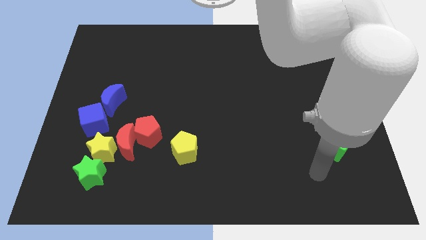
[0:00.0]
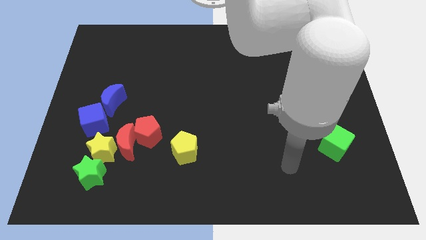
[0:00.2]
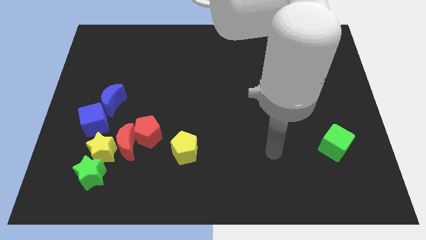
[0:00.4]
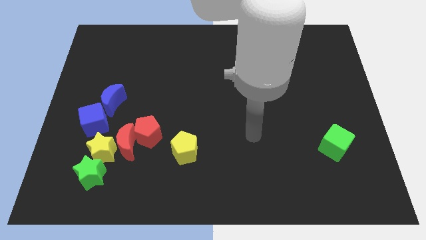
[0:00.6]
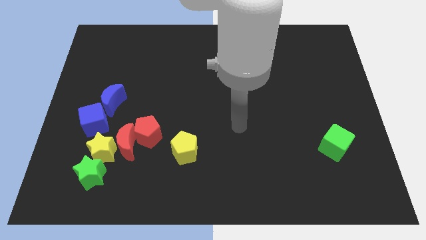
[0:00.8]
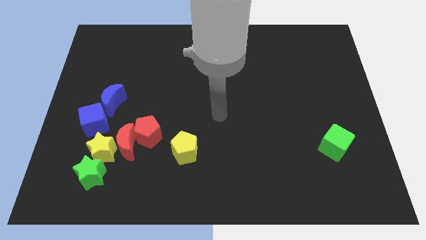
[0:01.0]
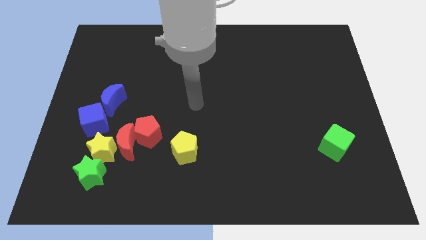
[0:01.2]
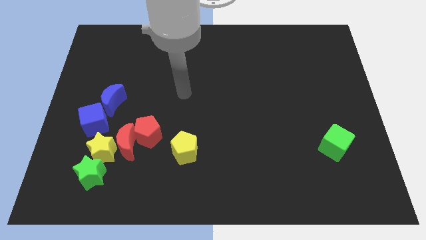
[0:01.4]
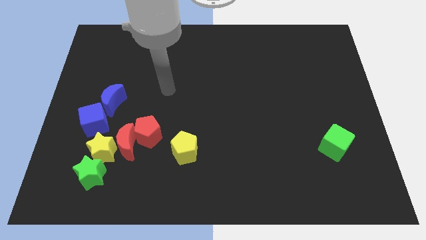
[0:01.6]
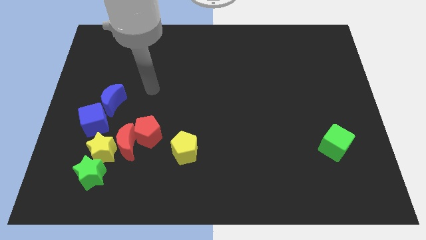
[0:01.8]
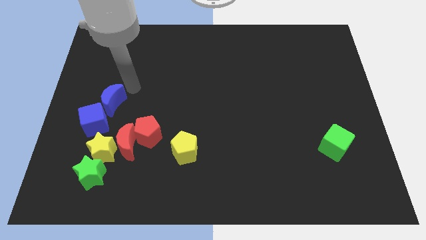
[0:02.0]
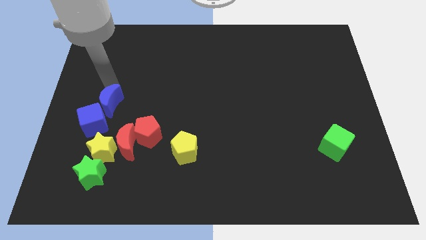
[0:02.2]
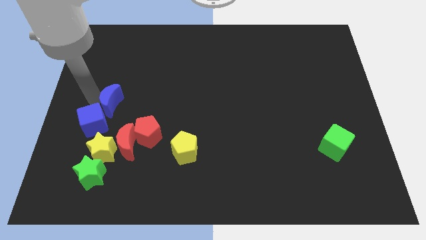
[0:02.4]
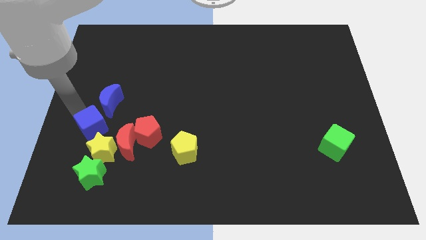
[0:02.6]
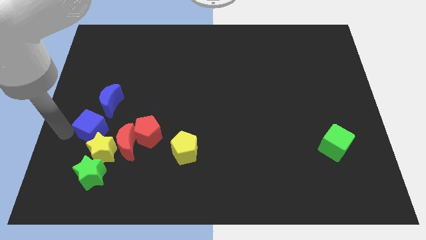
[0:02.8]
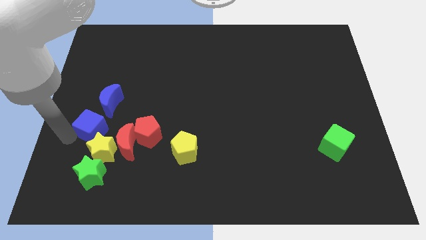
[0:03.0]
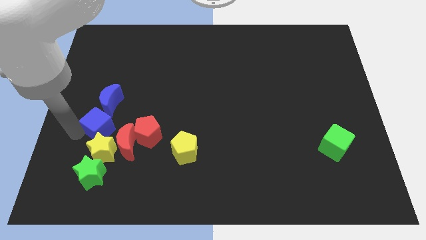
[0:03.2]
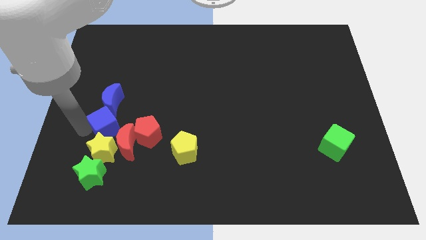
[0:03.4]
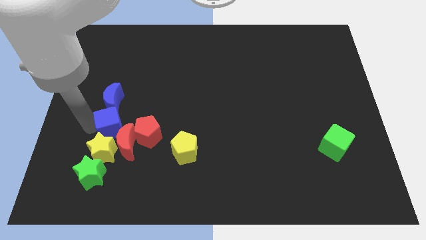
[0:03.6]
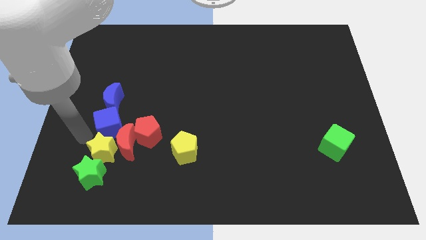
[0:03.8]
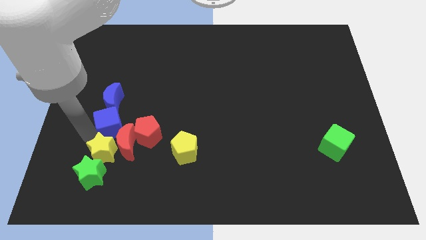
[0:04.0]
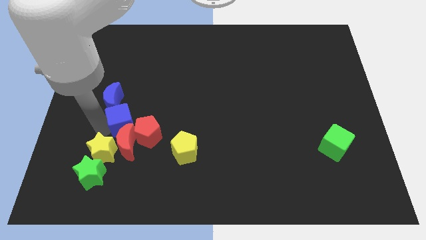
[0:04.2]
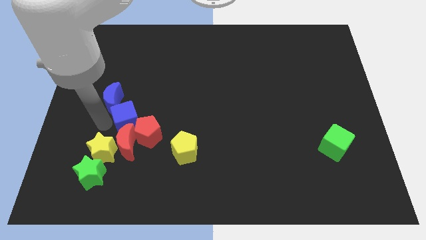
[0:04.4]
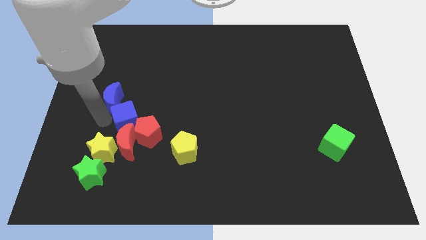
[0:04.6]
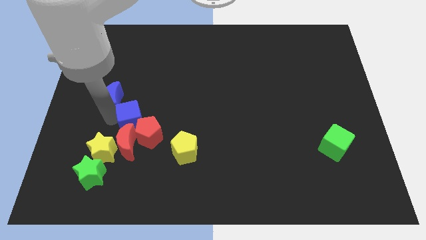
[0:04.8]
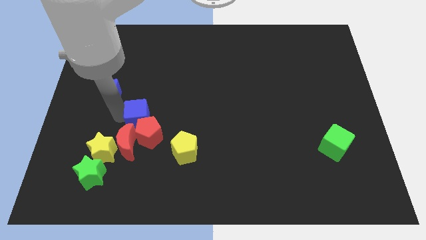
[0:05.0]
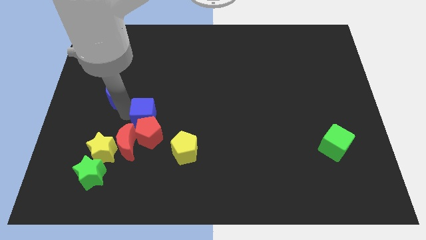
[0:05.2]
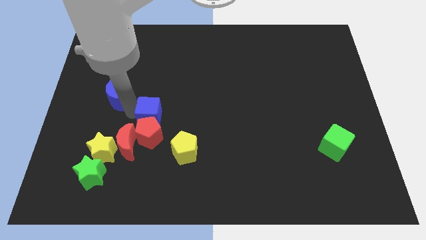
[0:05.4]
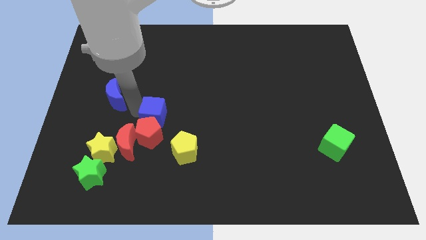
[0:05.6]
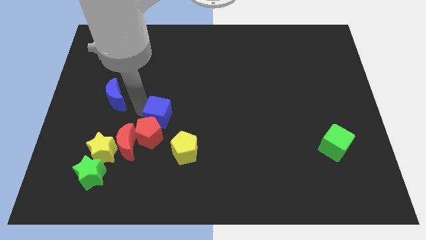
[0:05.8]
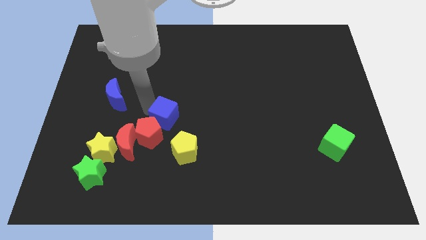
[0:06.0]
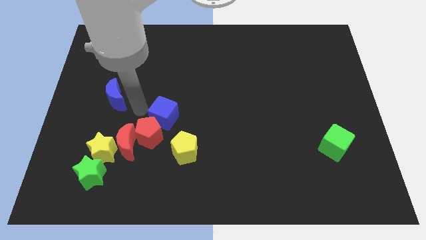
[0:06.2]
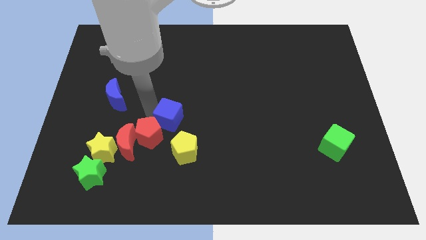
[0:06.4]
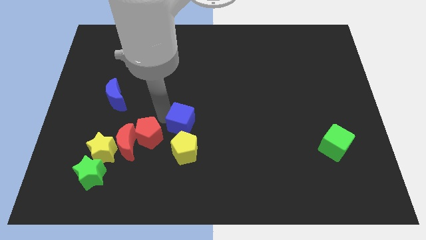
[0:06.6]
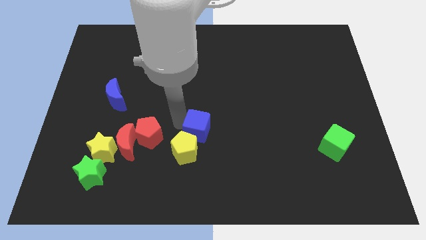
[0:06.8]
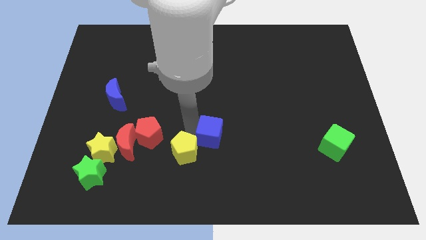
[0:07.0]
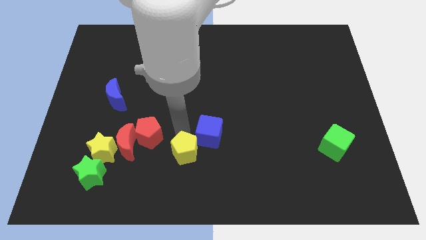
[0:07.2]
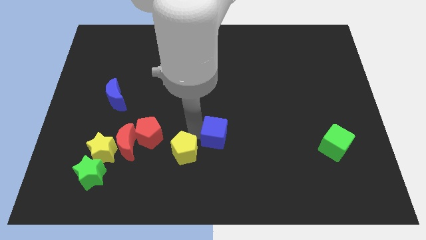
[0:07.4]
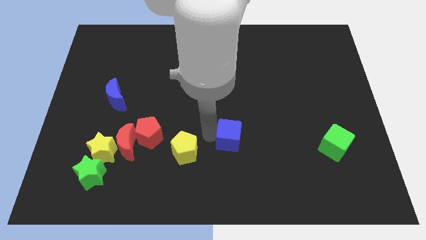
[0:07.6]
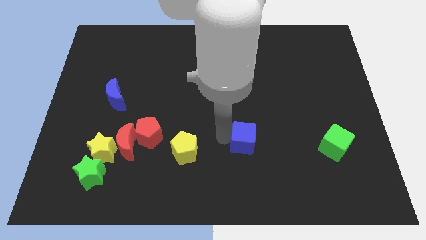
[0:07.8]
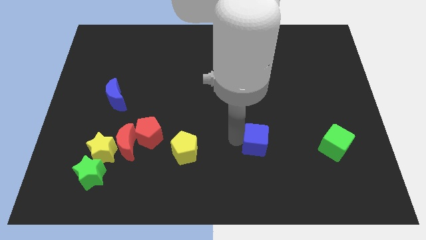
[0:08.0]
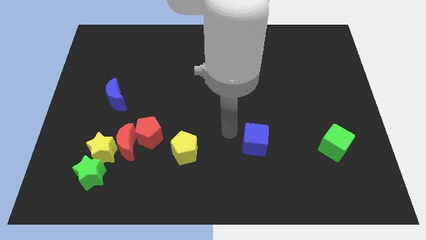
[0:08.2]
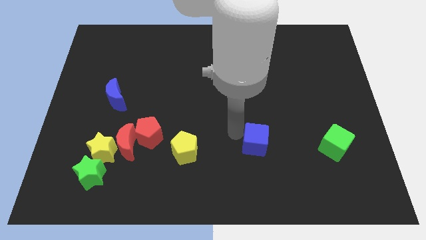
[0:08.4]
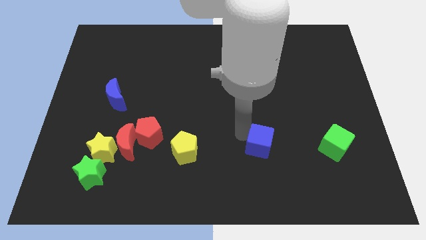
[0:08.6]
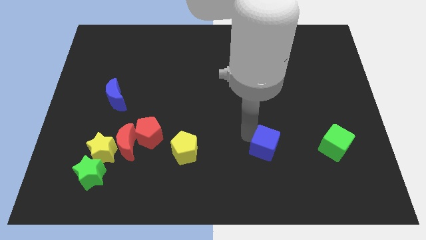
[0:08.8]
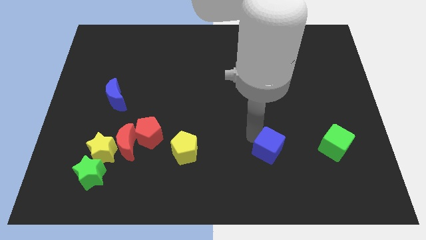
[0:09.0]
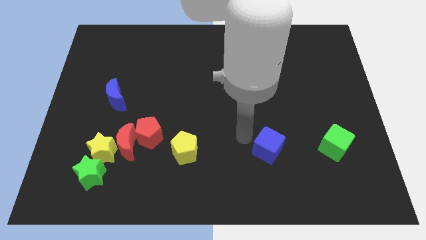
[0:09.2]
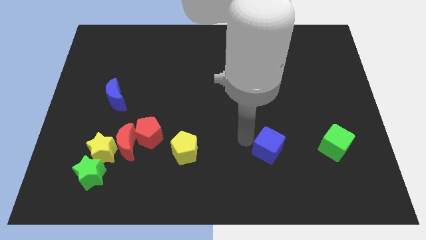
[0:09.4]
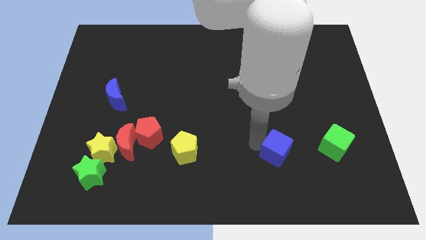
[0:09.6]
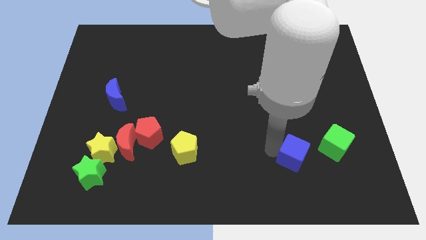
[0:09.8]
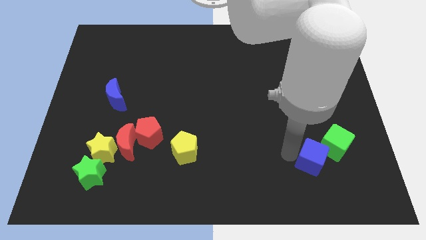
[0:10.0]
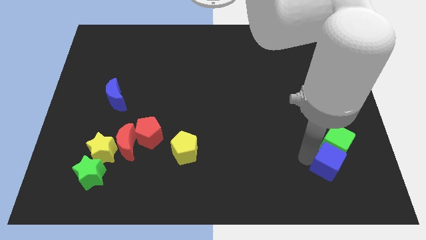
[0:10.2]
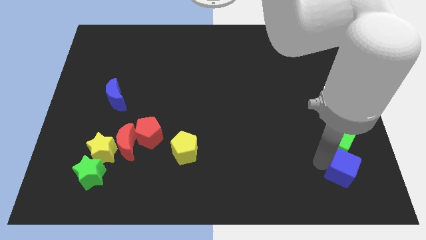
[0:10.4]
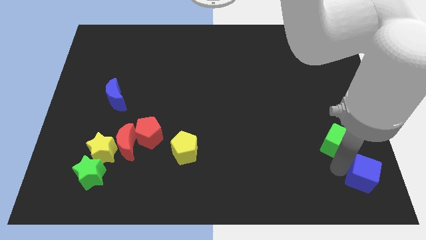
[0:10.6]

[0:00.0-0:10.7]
slide the blue cube to the bottom right
